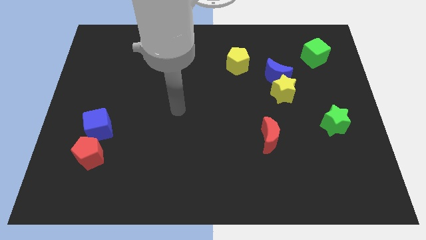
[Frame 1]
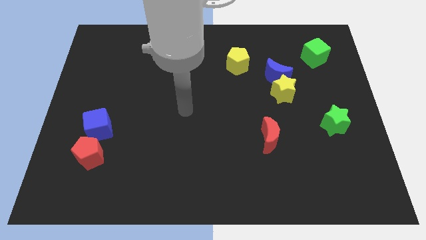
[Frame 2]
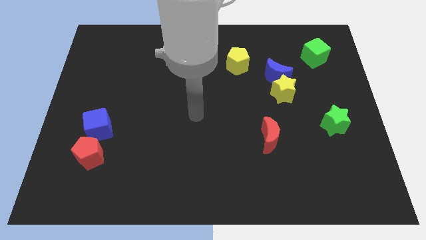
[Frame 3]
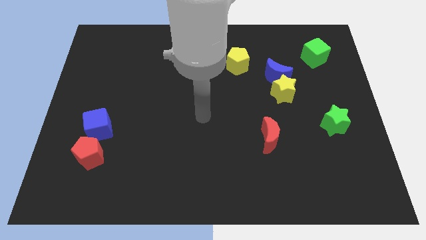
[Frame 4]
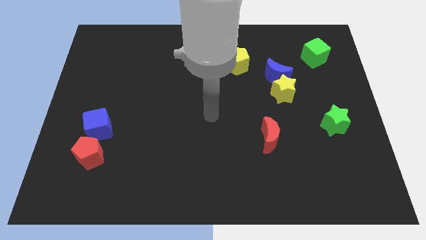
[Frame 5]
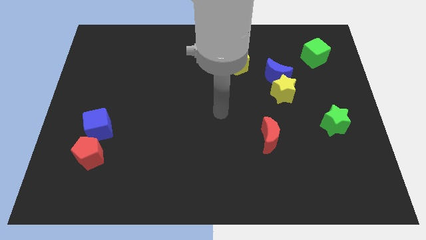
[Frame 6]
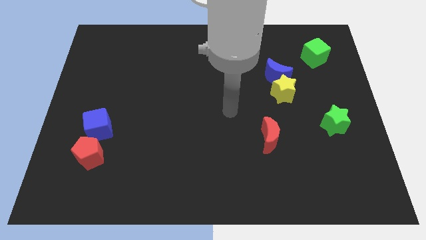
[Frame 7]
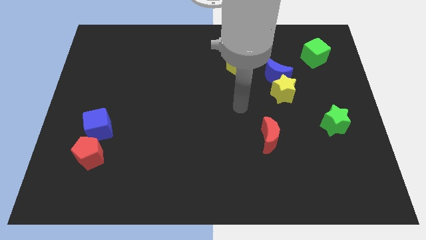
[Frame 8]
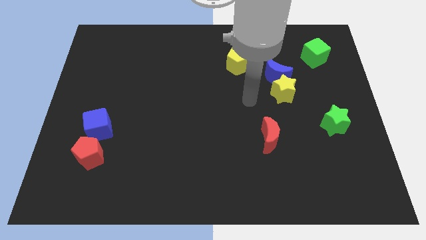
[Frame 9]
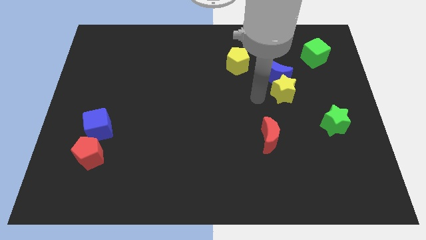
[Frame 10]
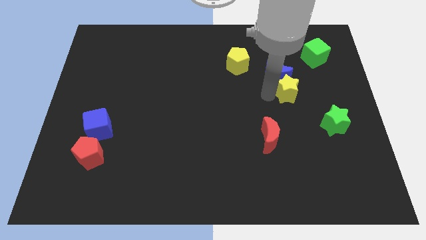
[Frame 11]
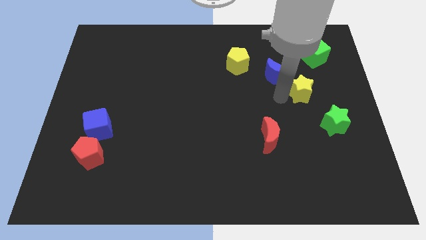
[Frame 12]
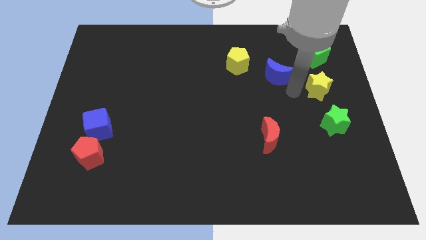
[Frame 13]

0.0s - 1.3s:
pull the blue moon apart from the yellow star

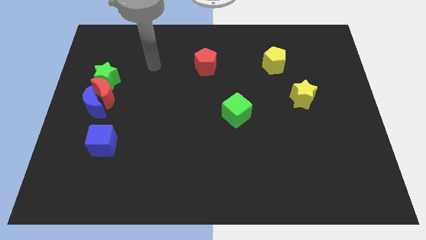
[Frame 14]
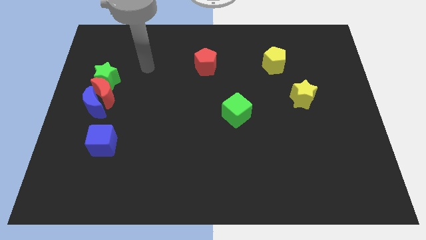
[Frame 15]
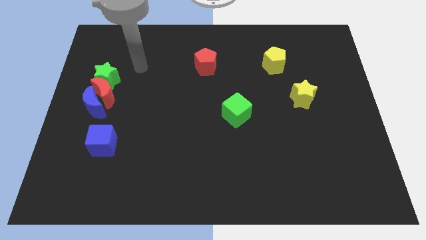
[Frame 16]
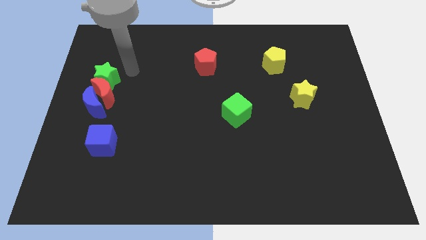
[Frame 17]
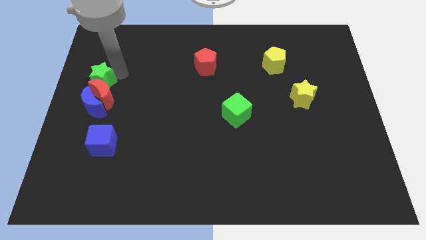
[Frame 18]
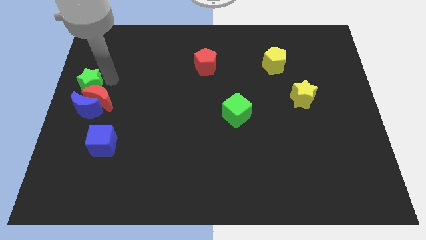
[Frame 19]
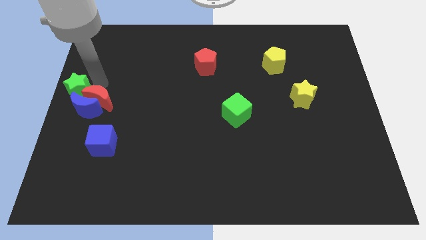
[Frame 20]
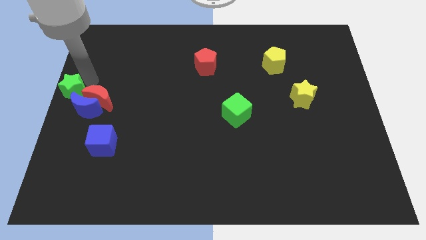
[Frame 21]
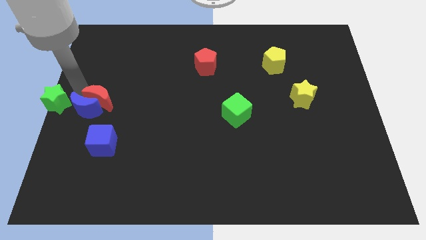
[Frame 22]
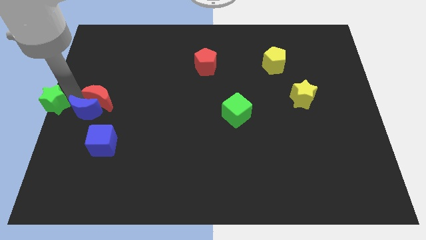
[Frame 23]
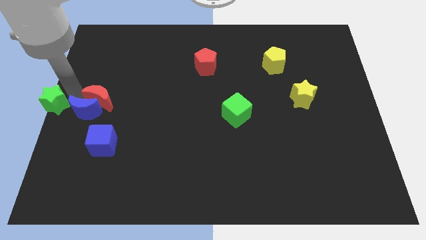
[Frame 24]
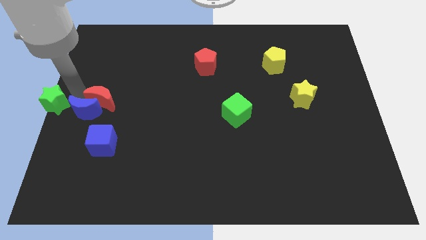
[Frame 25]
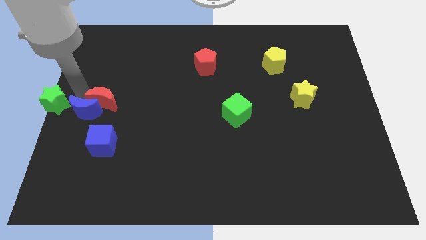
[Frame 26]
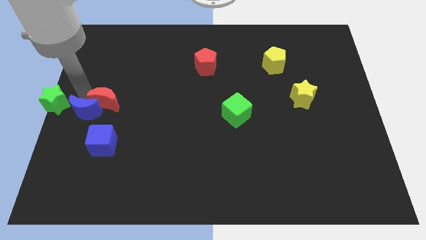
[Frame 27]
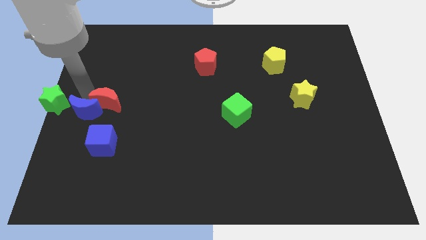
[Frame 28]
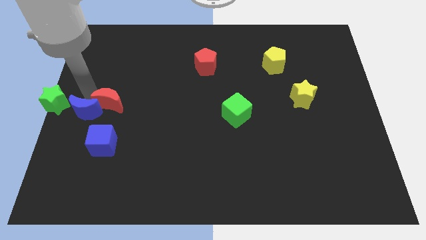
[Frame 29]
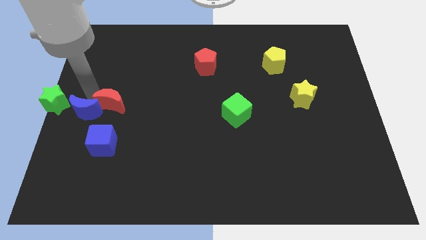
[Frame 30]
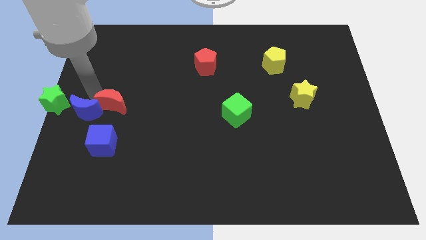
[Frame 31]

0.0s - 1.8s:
move the red moon away from the blue moon and green star

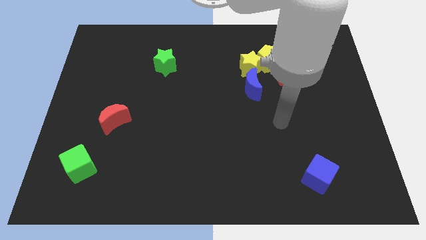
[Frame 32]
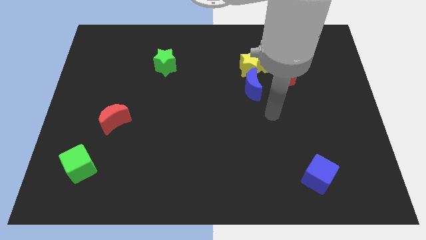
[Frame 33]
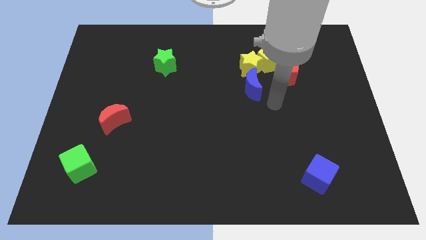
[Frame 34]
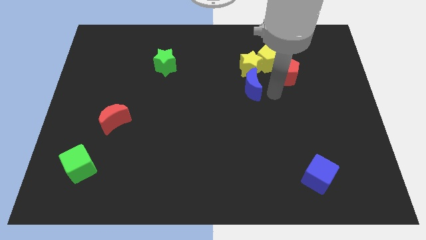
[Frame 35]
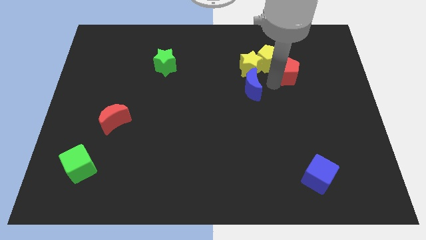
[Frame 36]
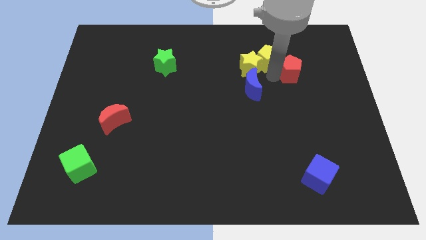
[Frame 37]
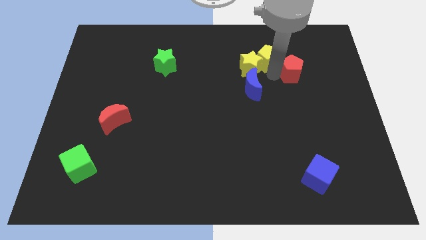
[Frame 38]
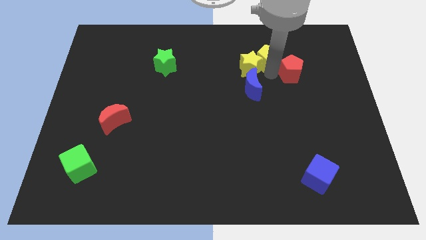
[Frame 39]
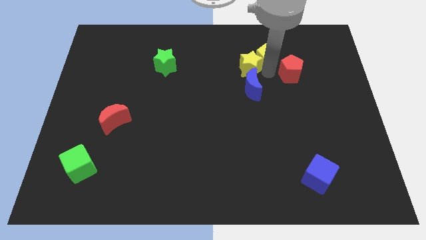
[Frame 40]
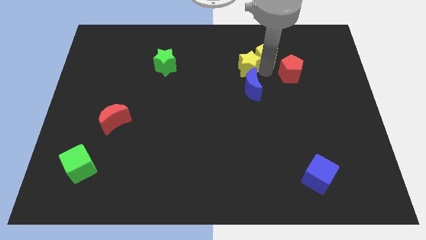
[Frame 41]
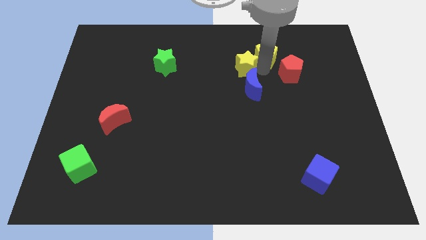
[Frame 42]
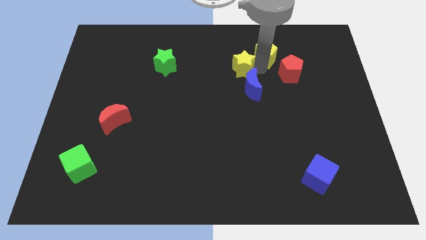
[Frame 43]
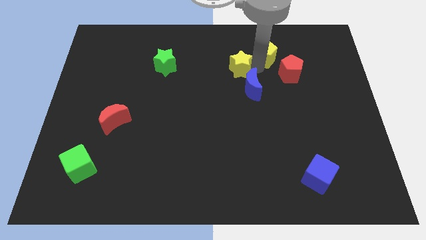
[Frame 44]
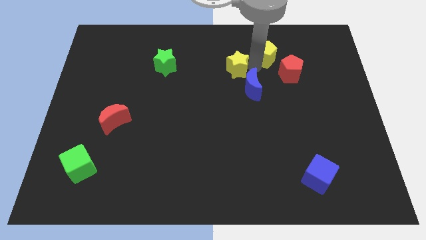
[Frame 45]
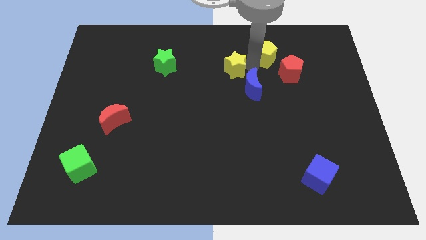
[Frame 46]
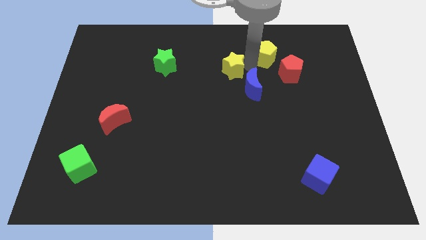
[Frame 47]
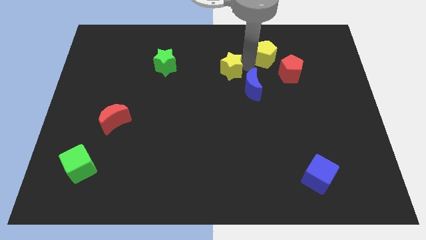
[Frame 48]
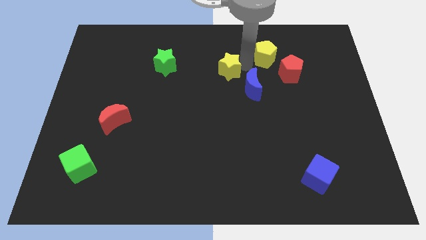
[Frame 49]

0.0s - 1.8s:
move the yellow star away from the group

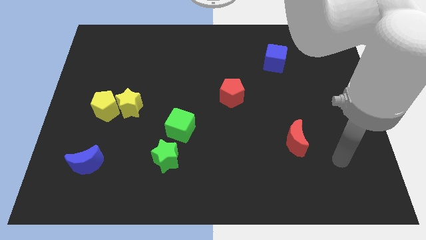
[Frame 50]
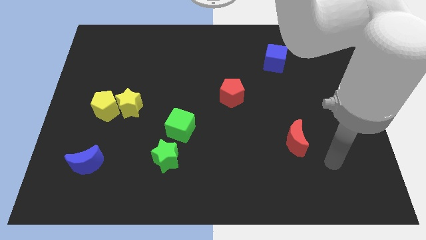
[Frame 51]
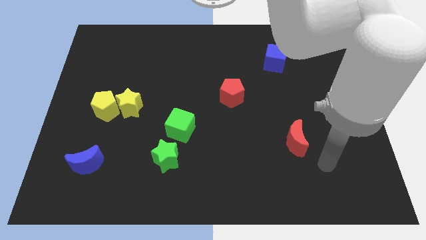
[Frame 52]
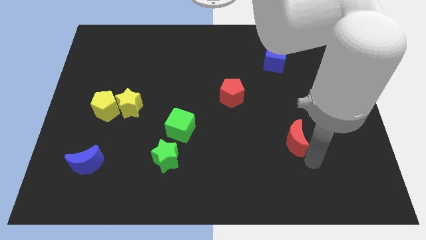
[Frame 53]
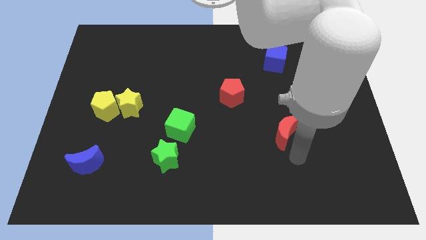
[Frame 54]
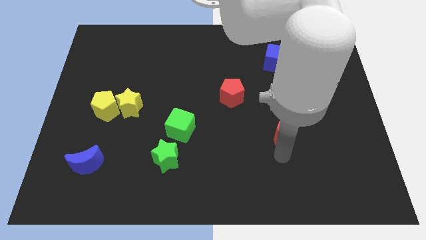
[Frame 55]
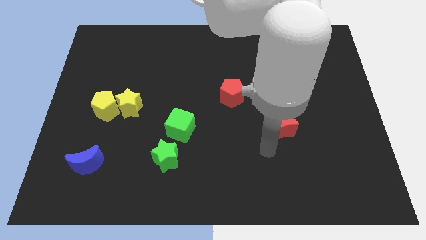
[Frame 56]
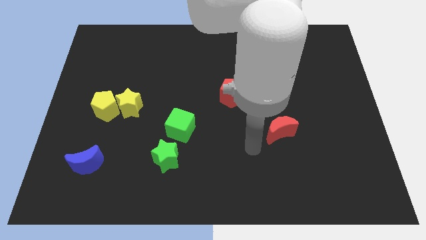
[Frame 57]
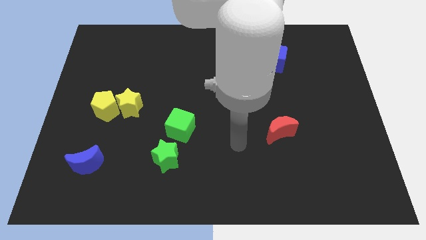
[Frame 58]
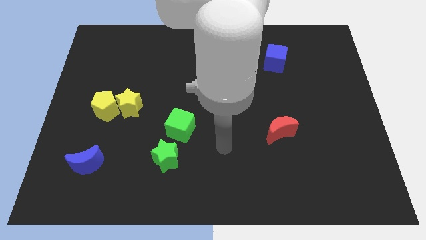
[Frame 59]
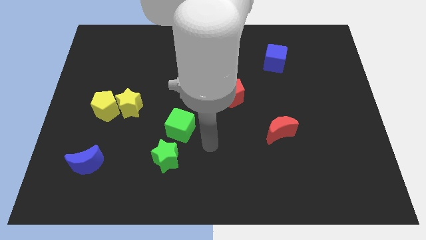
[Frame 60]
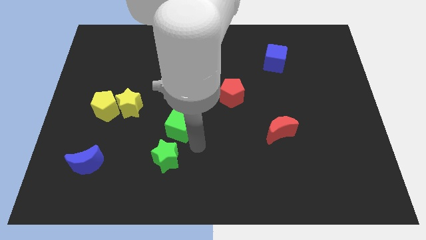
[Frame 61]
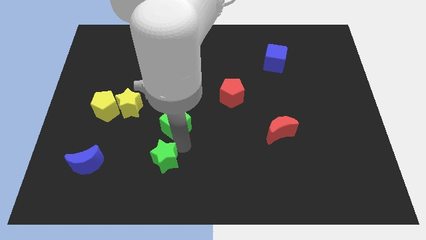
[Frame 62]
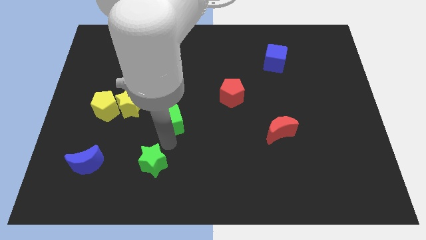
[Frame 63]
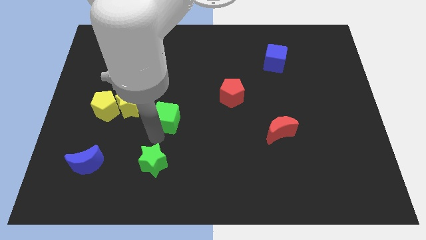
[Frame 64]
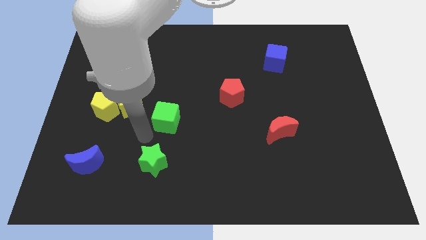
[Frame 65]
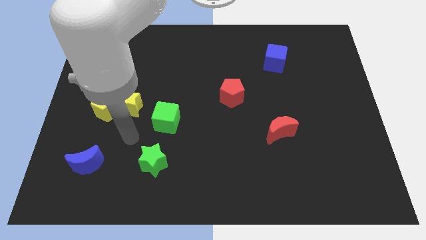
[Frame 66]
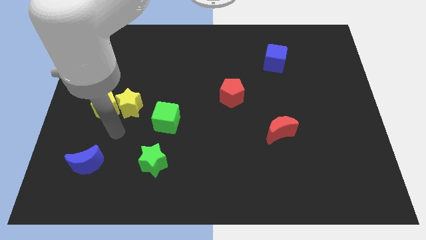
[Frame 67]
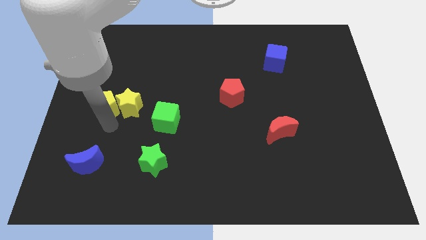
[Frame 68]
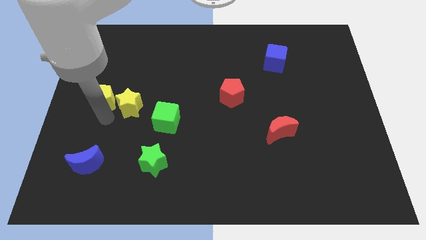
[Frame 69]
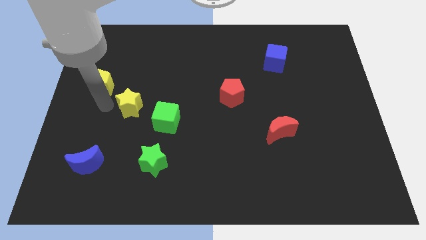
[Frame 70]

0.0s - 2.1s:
separate the yellow star from the yellow pentagon

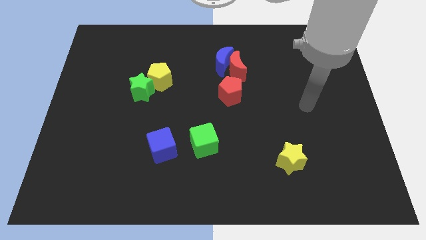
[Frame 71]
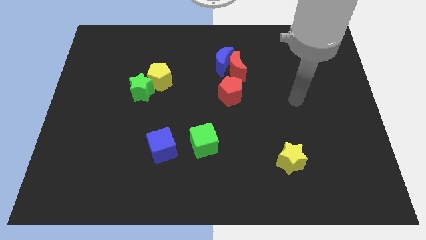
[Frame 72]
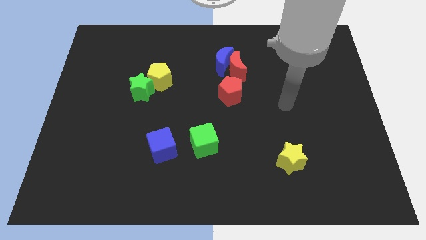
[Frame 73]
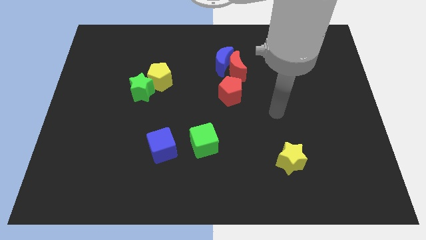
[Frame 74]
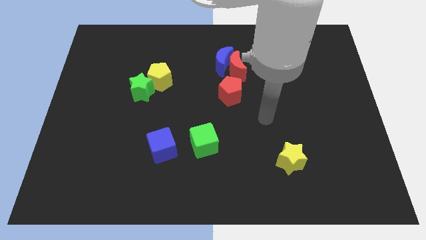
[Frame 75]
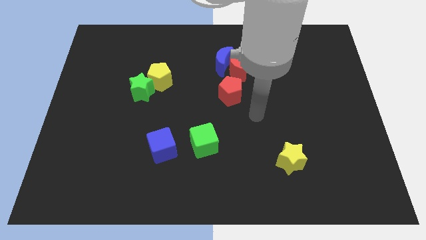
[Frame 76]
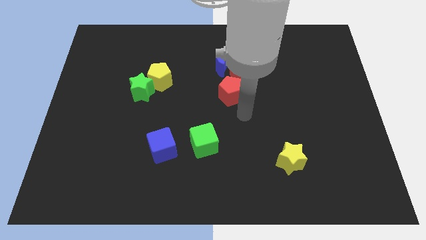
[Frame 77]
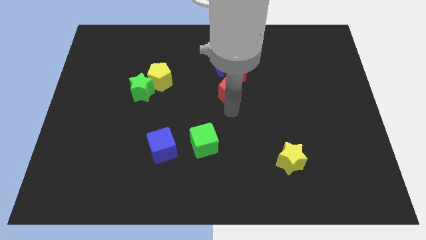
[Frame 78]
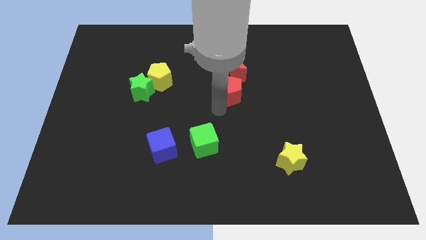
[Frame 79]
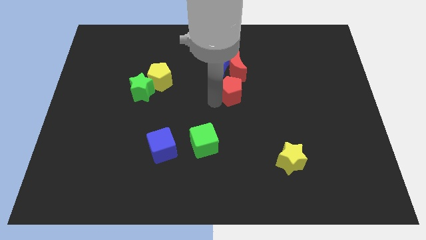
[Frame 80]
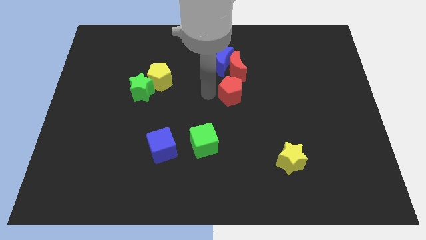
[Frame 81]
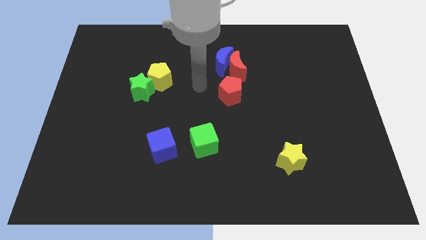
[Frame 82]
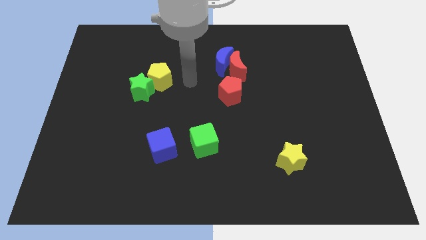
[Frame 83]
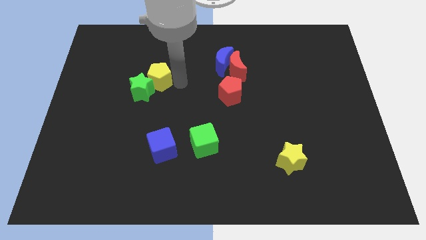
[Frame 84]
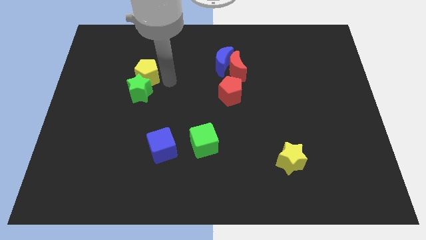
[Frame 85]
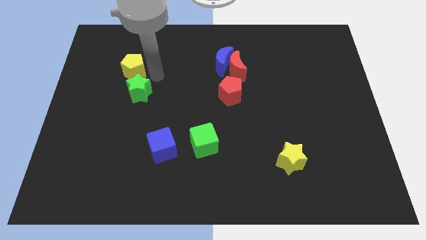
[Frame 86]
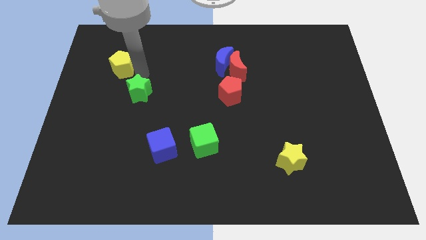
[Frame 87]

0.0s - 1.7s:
pull the green star apart from the yellow pentagon

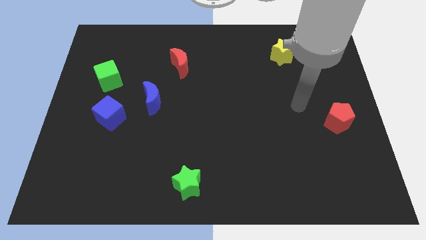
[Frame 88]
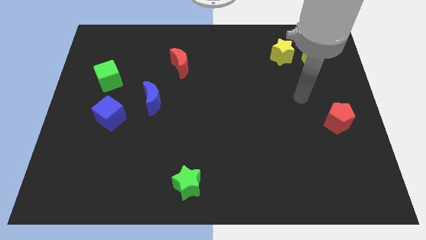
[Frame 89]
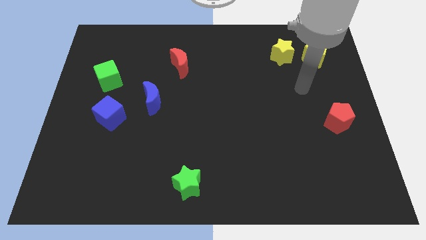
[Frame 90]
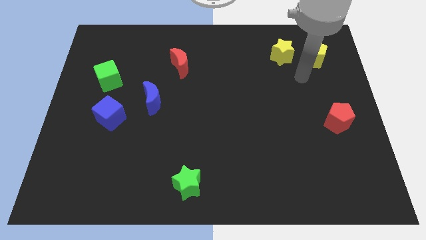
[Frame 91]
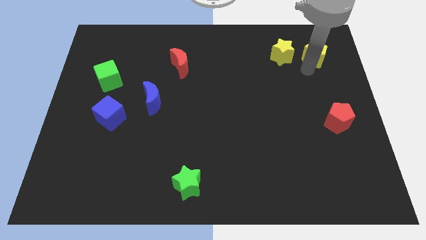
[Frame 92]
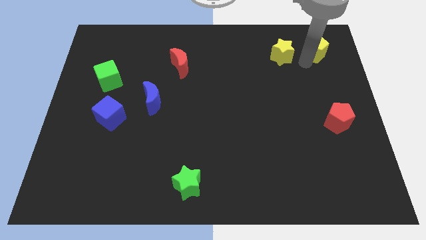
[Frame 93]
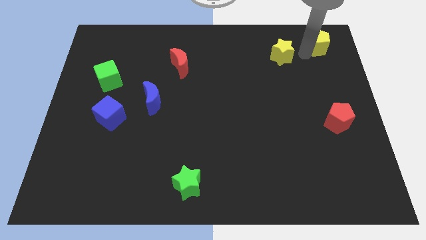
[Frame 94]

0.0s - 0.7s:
pull the yellow star apart from the yellow pentagon
